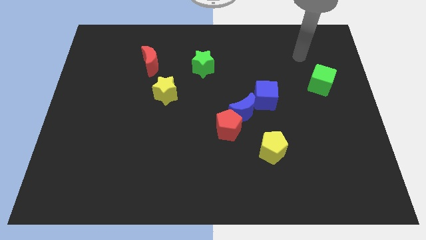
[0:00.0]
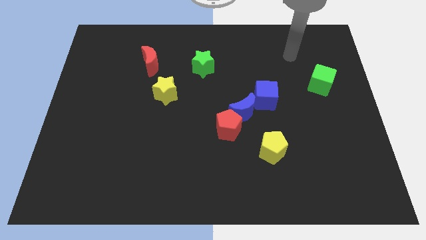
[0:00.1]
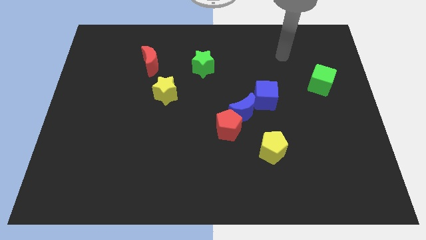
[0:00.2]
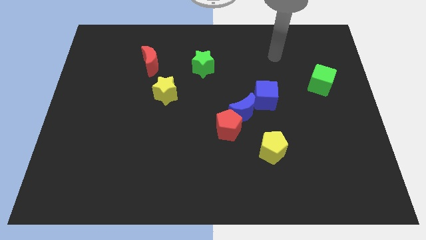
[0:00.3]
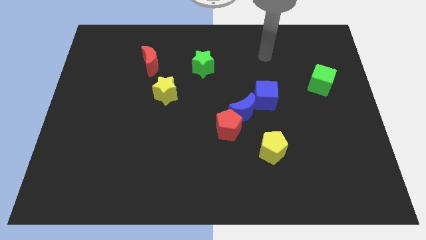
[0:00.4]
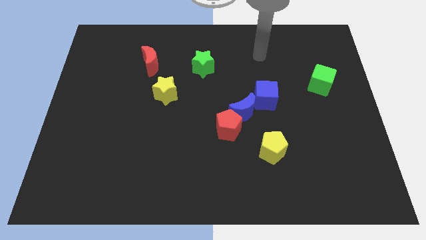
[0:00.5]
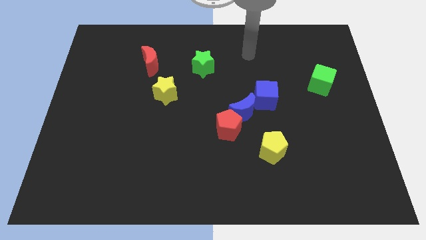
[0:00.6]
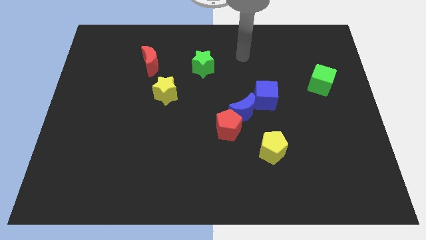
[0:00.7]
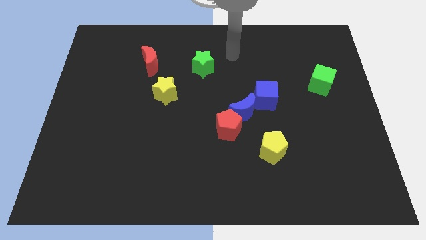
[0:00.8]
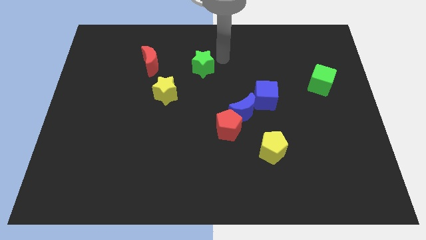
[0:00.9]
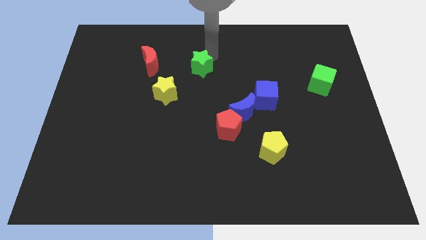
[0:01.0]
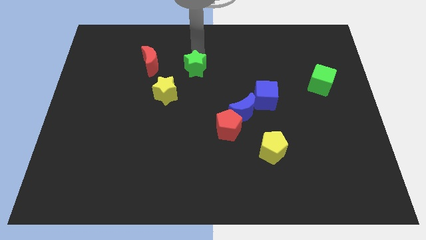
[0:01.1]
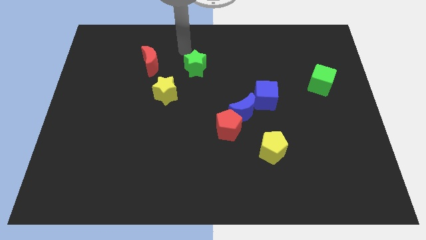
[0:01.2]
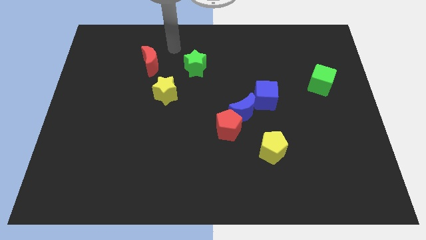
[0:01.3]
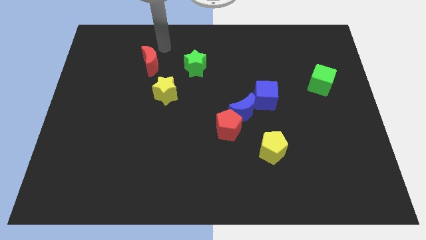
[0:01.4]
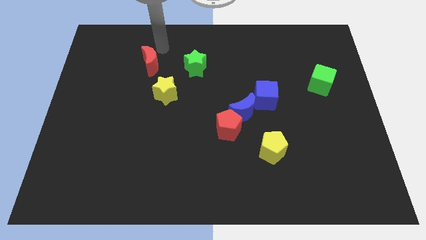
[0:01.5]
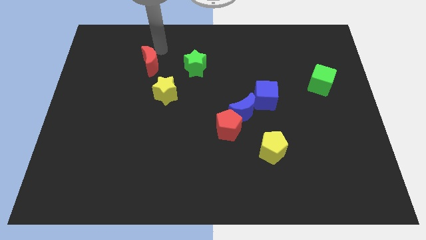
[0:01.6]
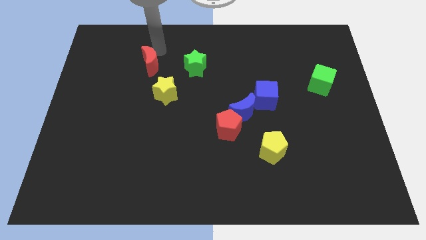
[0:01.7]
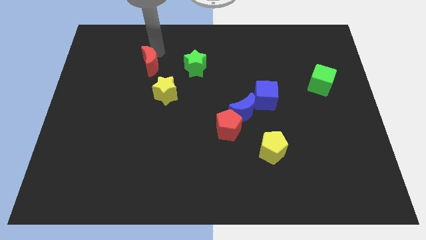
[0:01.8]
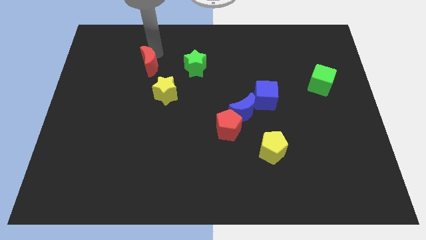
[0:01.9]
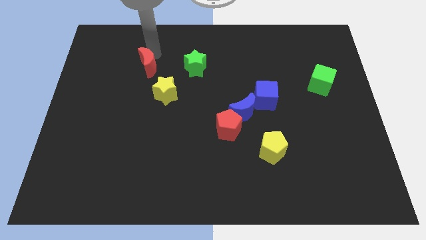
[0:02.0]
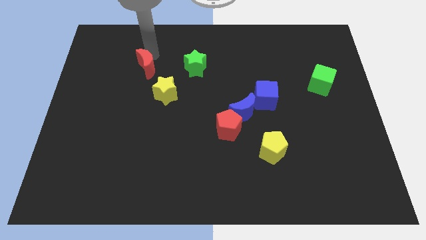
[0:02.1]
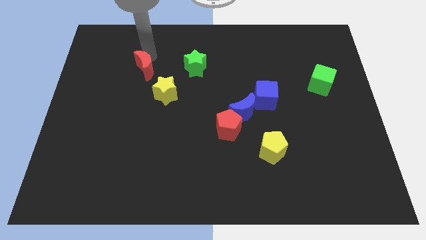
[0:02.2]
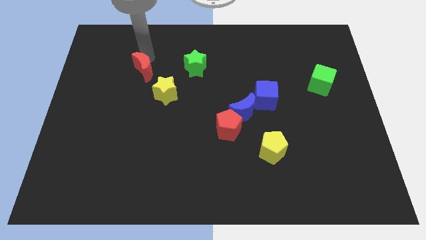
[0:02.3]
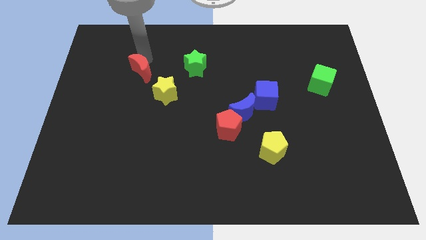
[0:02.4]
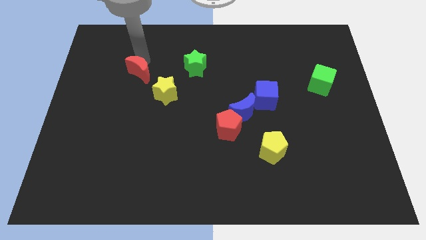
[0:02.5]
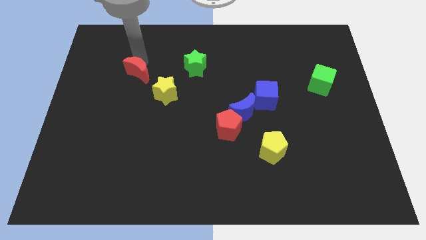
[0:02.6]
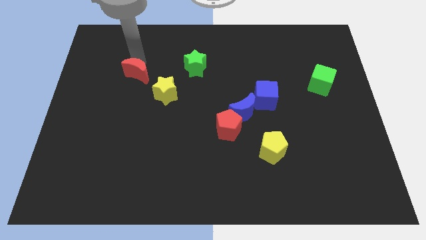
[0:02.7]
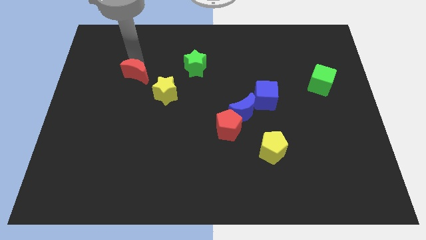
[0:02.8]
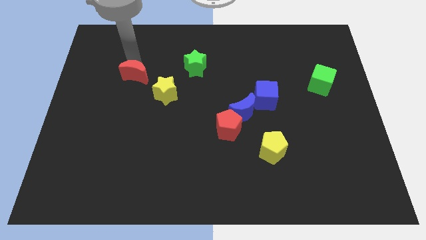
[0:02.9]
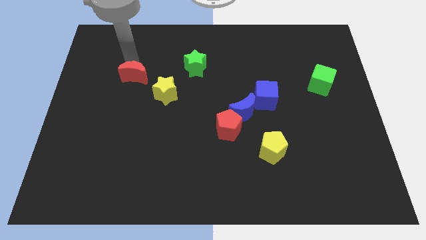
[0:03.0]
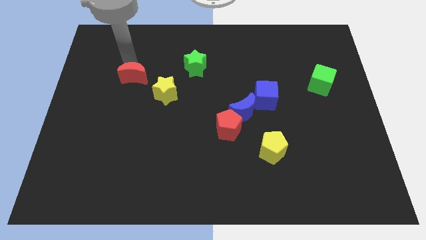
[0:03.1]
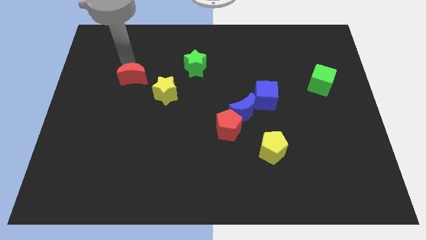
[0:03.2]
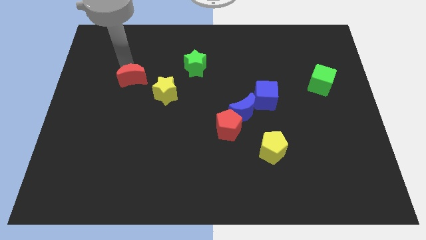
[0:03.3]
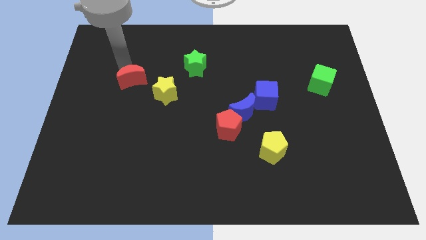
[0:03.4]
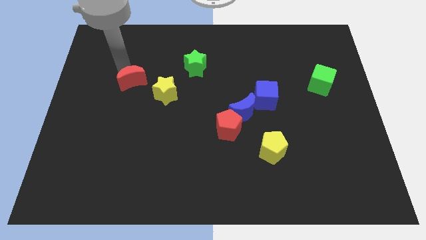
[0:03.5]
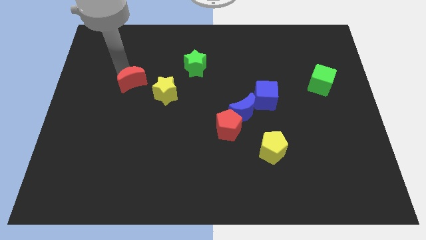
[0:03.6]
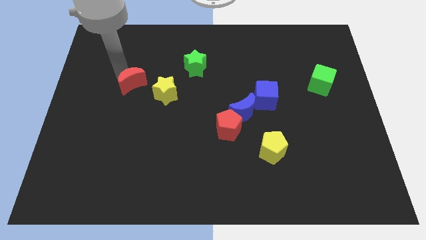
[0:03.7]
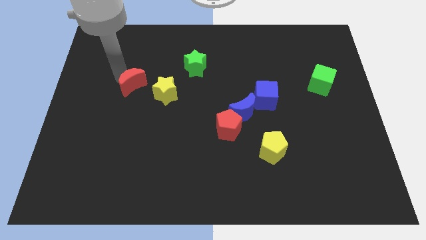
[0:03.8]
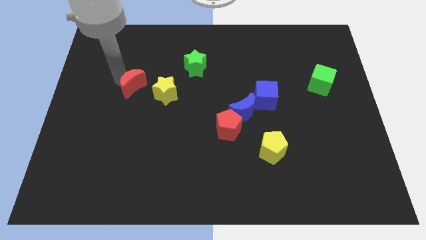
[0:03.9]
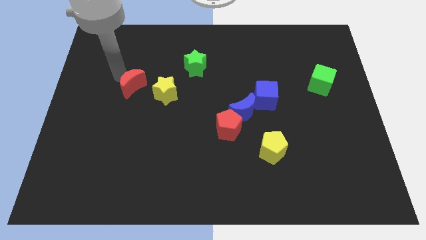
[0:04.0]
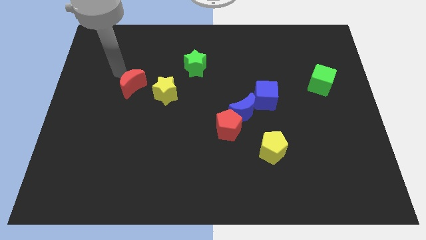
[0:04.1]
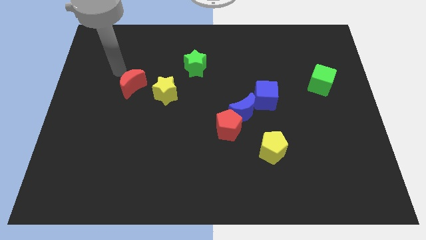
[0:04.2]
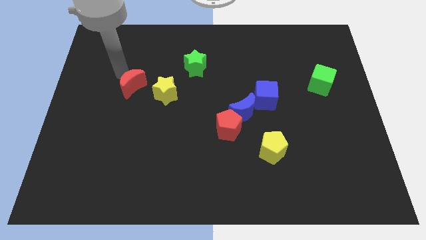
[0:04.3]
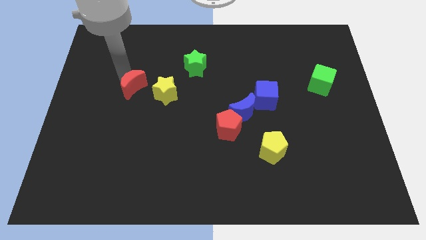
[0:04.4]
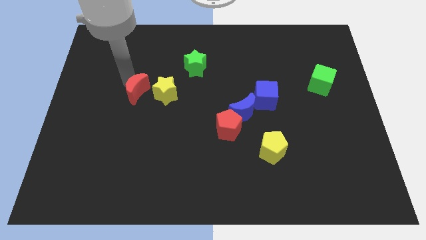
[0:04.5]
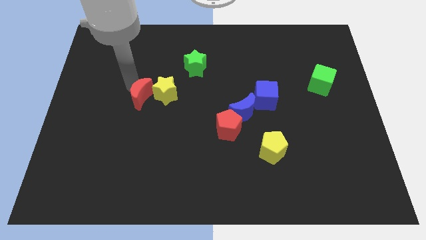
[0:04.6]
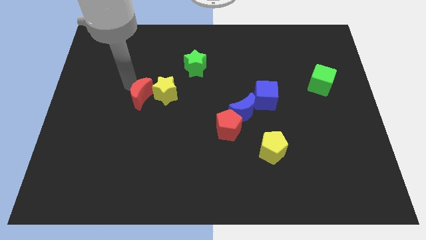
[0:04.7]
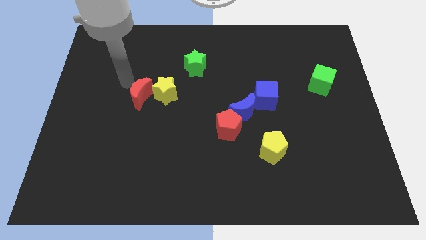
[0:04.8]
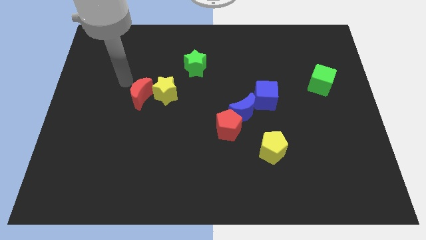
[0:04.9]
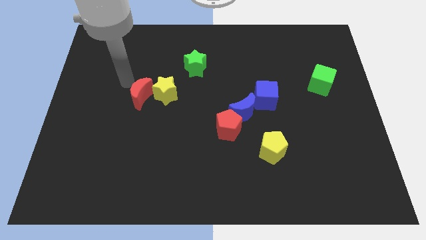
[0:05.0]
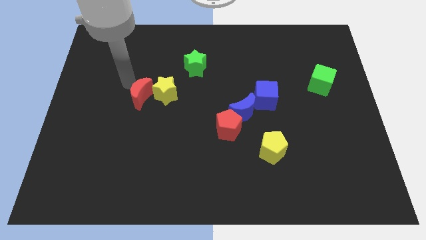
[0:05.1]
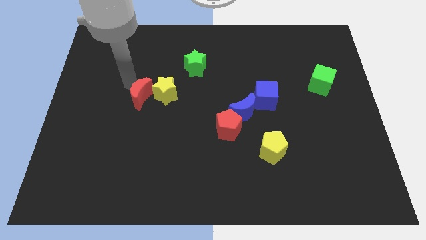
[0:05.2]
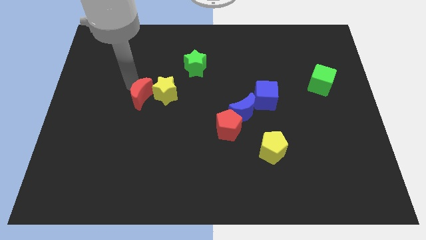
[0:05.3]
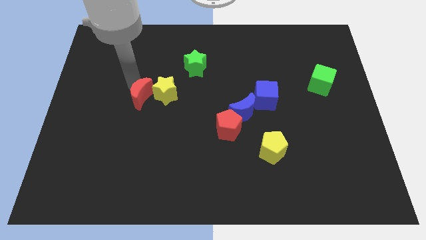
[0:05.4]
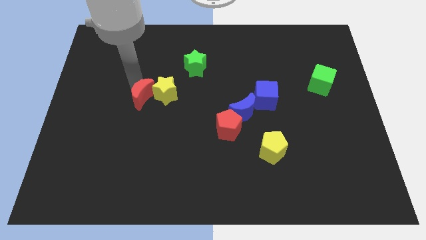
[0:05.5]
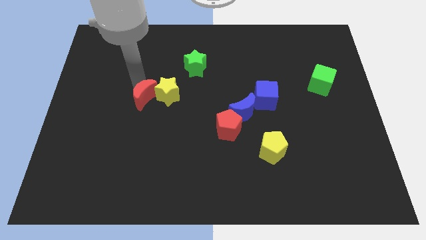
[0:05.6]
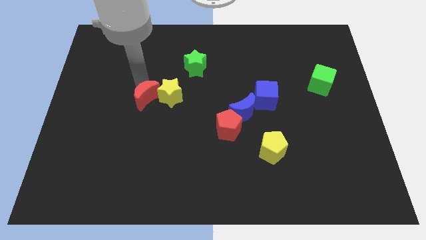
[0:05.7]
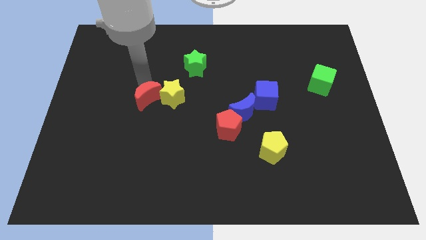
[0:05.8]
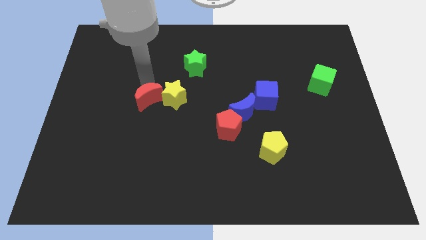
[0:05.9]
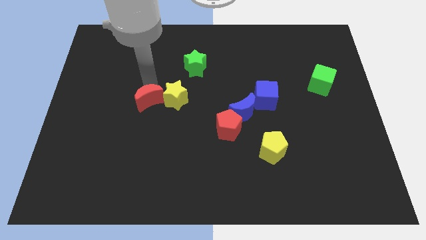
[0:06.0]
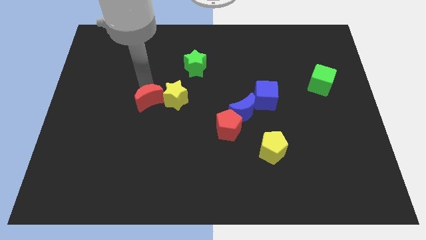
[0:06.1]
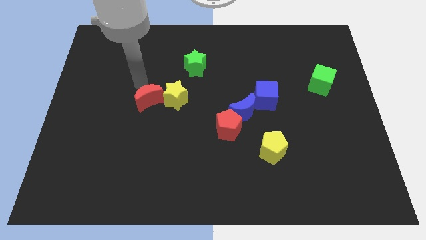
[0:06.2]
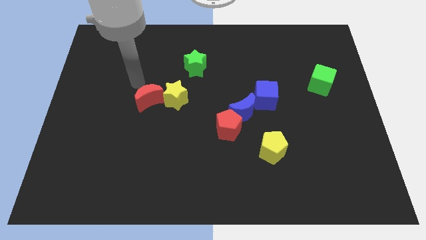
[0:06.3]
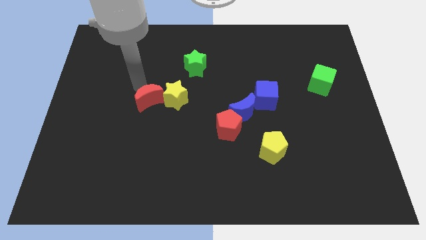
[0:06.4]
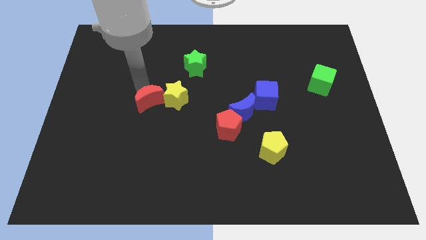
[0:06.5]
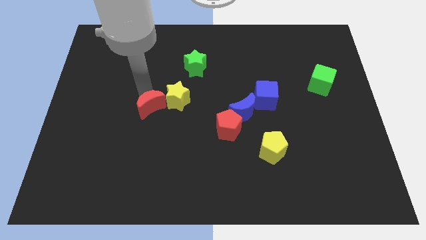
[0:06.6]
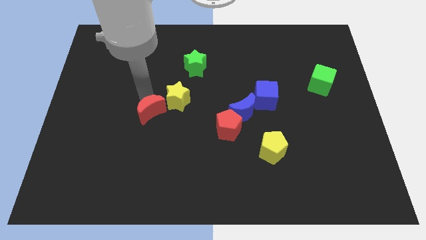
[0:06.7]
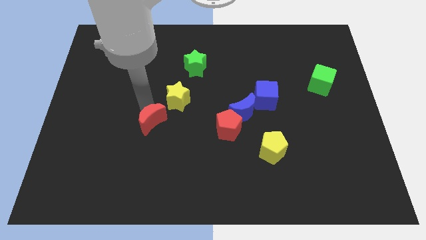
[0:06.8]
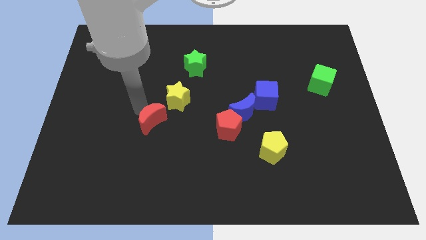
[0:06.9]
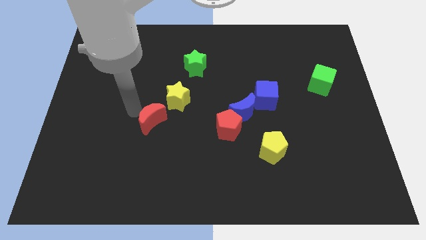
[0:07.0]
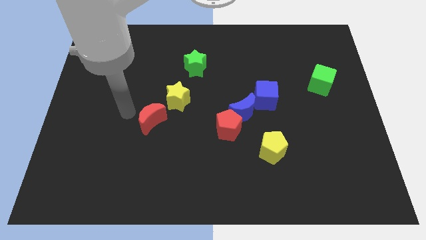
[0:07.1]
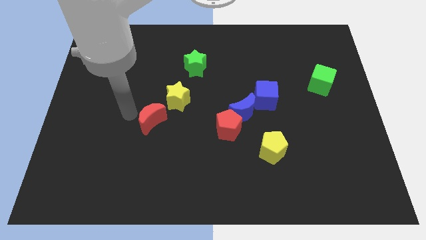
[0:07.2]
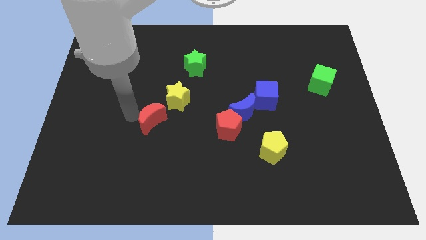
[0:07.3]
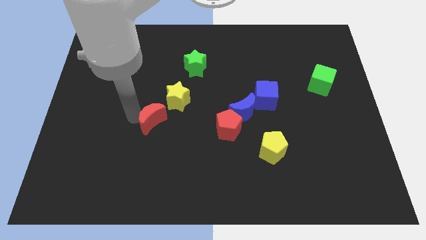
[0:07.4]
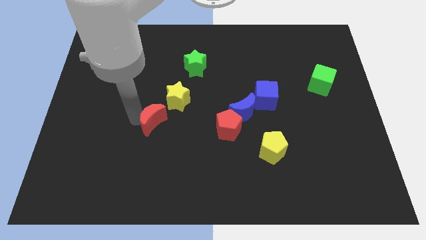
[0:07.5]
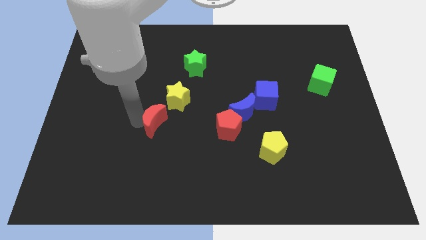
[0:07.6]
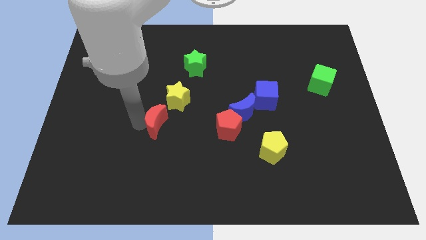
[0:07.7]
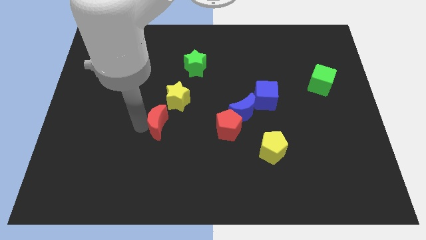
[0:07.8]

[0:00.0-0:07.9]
slide the red moon to the left of the red pentagon
